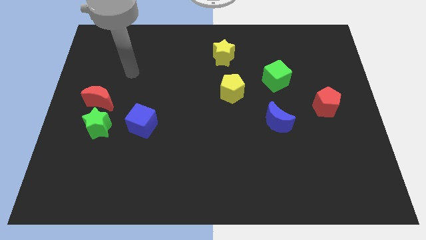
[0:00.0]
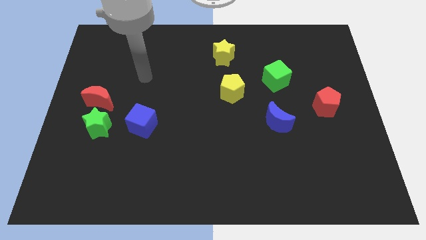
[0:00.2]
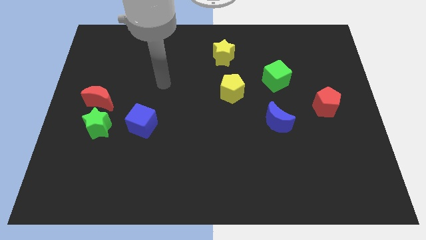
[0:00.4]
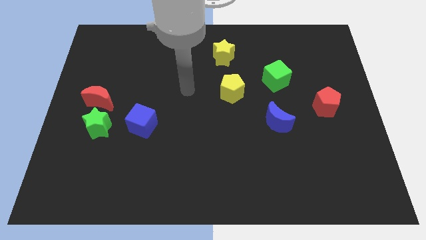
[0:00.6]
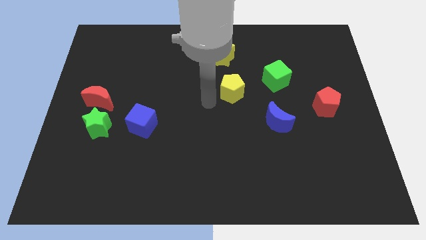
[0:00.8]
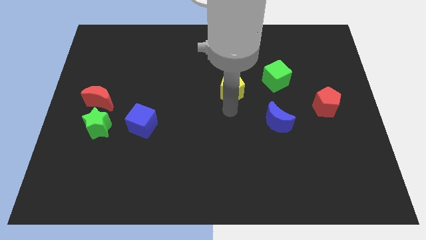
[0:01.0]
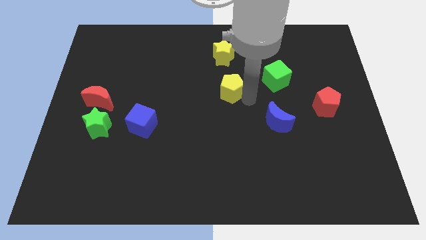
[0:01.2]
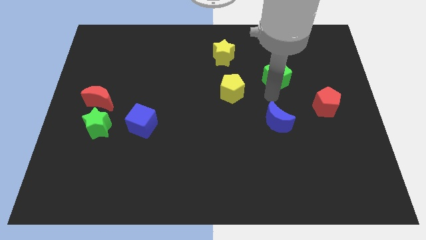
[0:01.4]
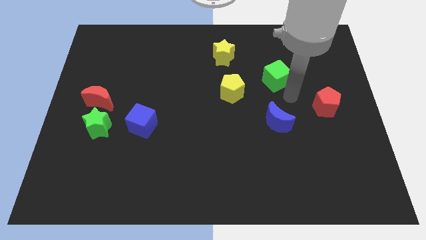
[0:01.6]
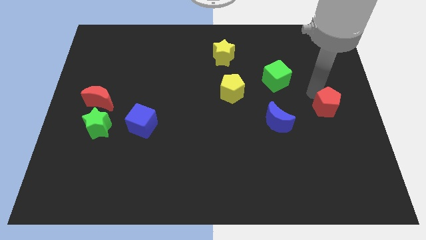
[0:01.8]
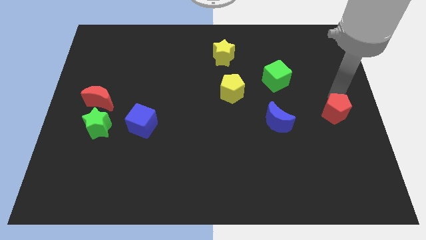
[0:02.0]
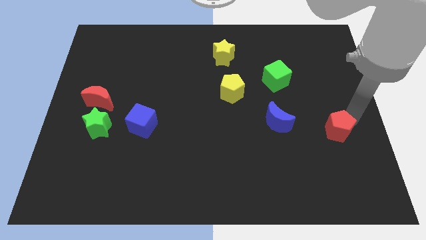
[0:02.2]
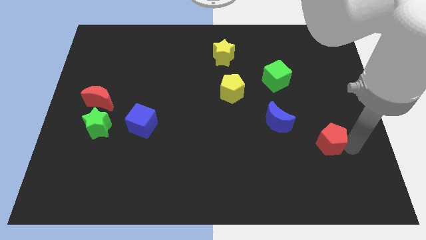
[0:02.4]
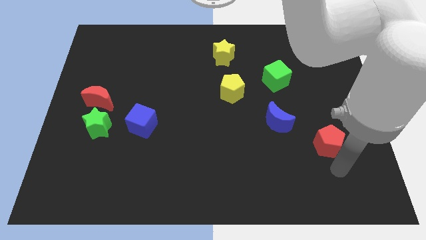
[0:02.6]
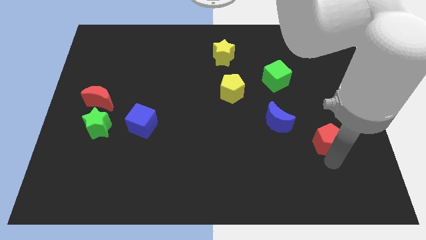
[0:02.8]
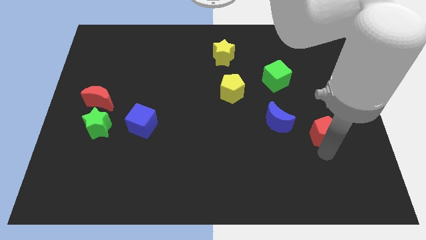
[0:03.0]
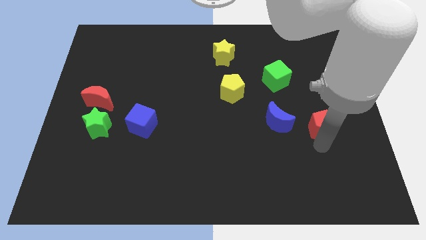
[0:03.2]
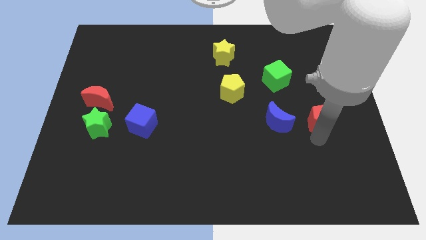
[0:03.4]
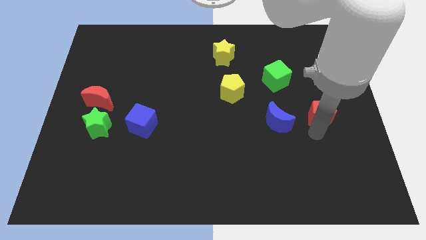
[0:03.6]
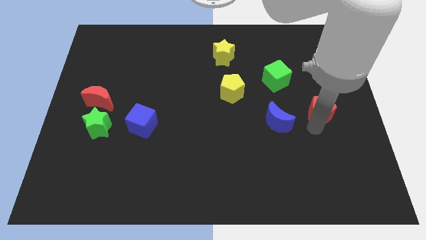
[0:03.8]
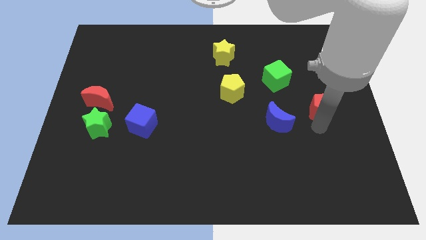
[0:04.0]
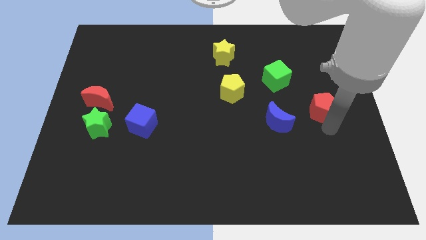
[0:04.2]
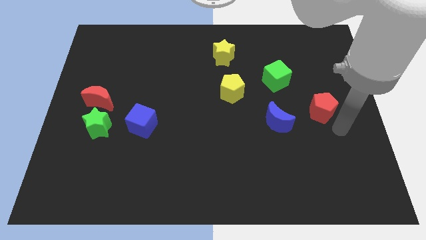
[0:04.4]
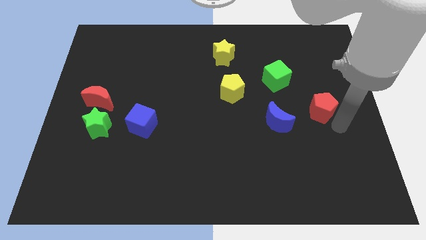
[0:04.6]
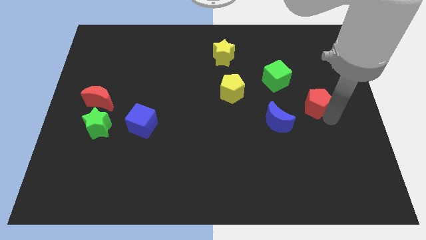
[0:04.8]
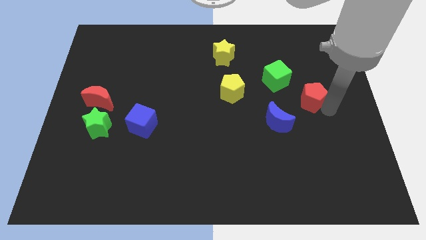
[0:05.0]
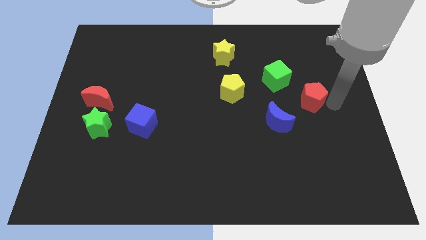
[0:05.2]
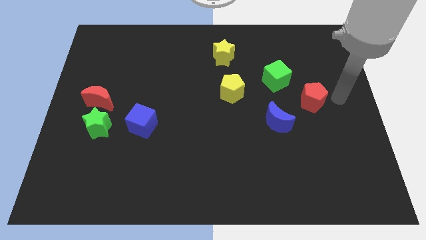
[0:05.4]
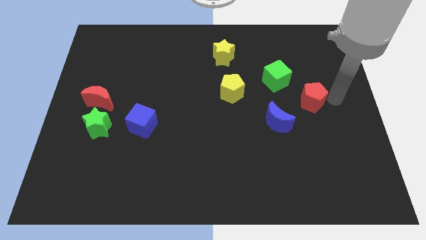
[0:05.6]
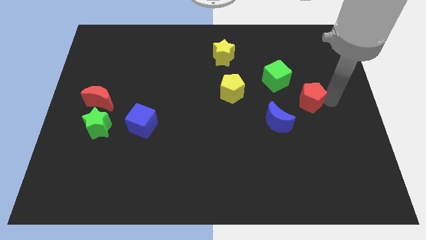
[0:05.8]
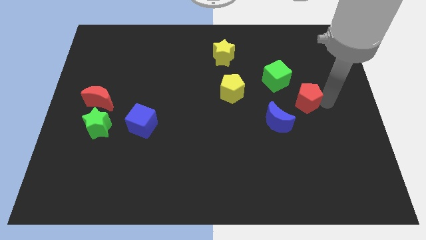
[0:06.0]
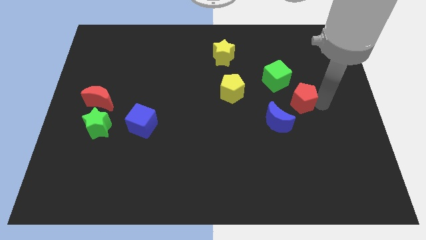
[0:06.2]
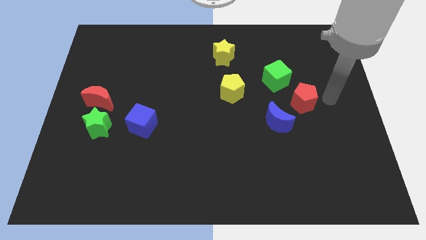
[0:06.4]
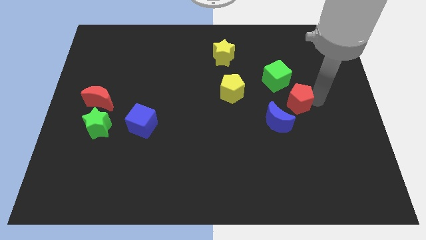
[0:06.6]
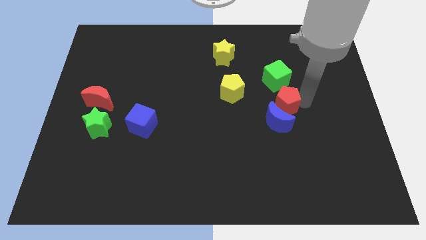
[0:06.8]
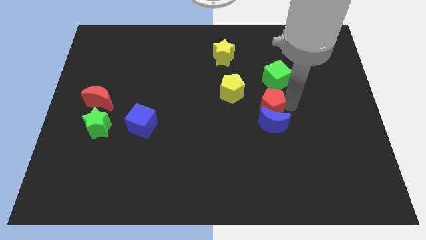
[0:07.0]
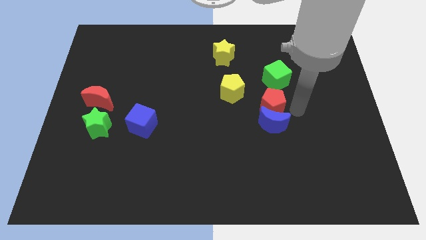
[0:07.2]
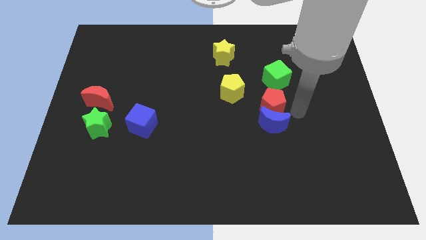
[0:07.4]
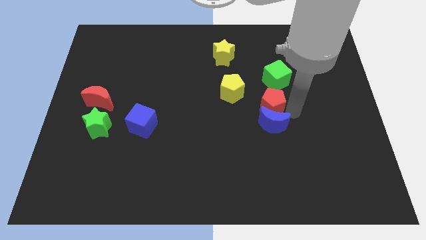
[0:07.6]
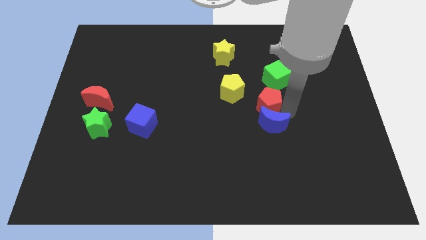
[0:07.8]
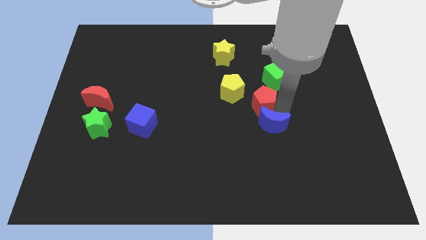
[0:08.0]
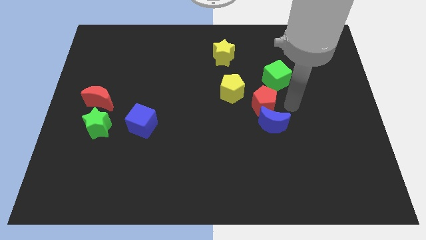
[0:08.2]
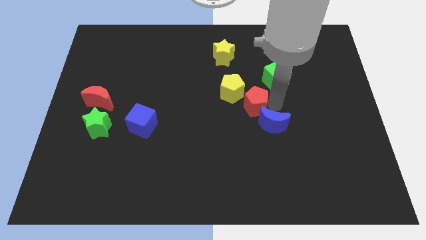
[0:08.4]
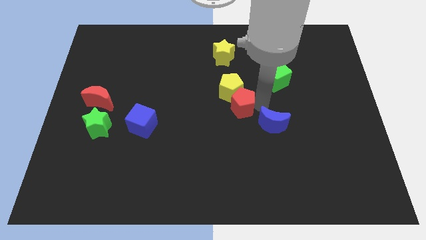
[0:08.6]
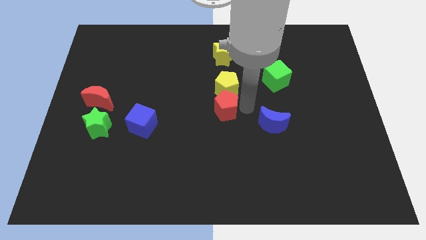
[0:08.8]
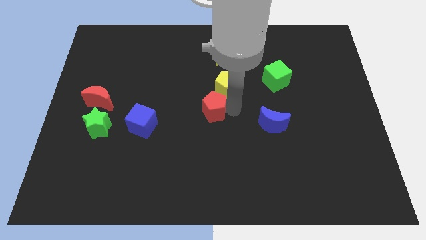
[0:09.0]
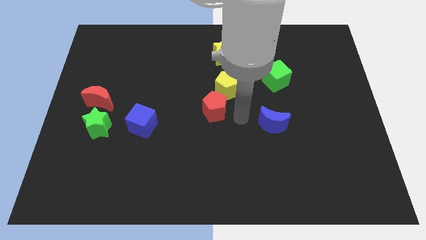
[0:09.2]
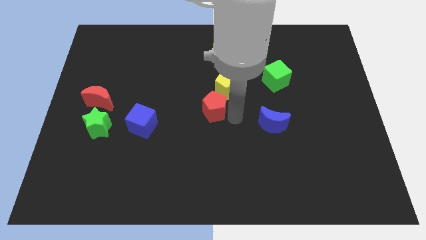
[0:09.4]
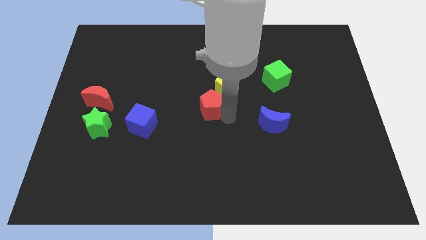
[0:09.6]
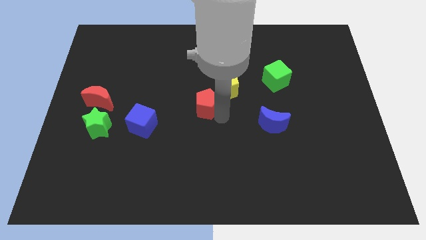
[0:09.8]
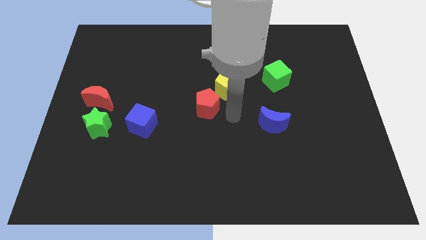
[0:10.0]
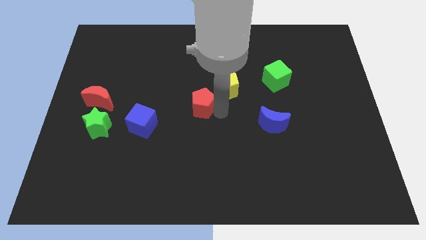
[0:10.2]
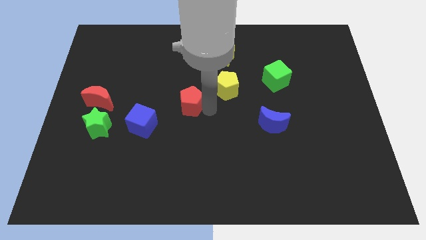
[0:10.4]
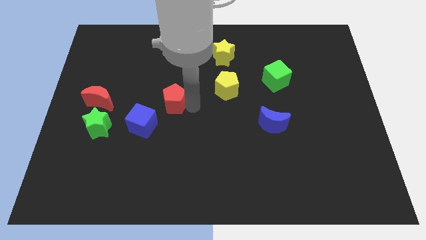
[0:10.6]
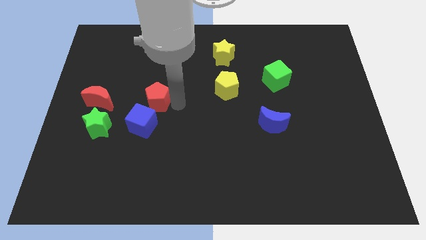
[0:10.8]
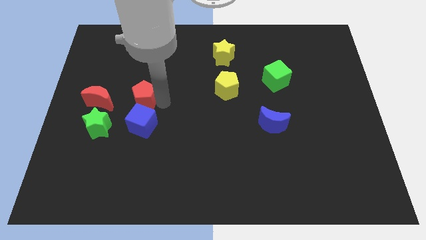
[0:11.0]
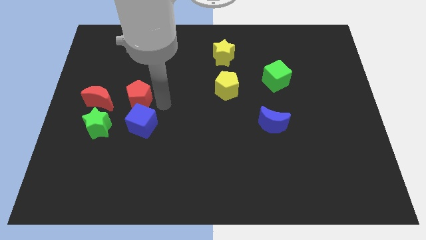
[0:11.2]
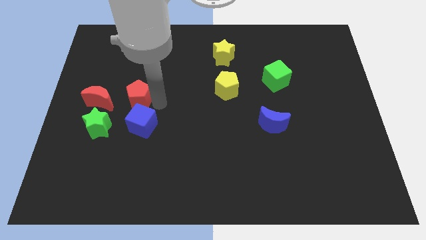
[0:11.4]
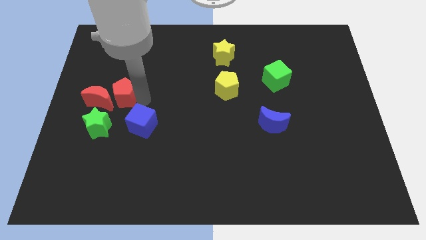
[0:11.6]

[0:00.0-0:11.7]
slide the red pentagon to the top side of the green star

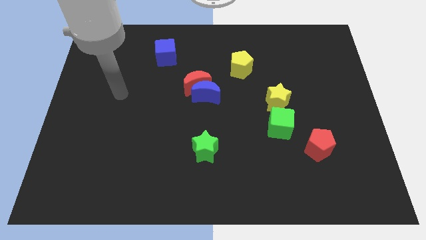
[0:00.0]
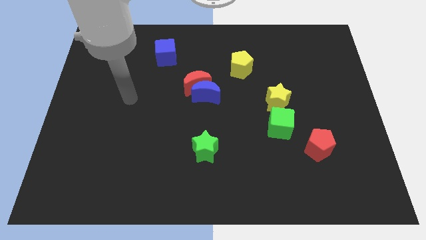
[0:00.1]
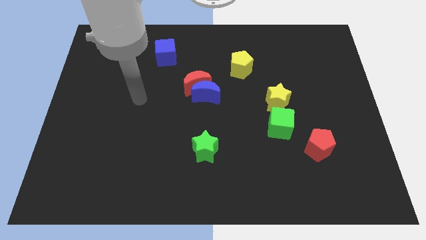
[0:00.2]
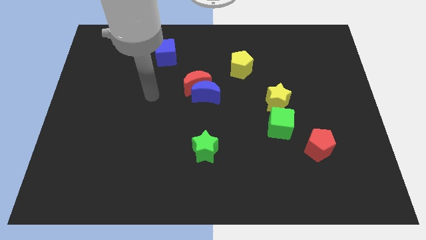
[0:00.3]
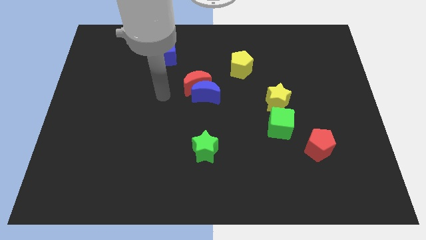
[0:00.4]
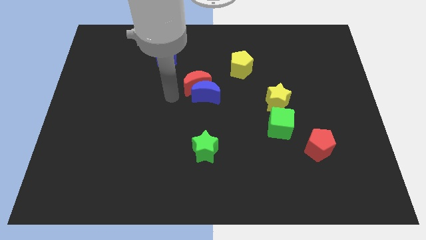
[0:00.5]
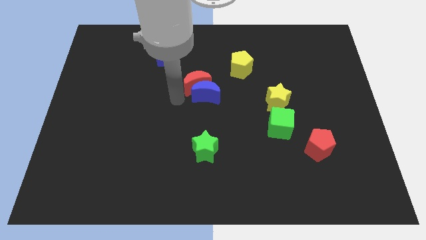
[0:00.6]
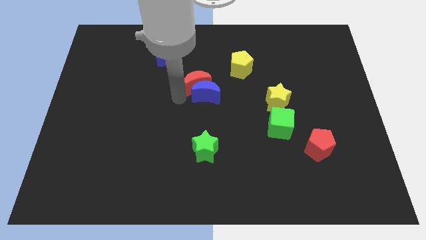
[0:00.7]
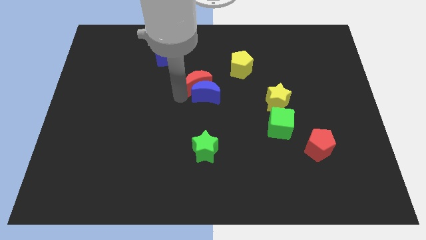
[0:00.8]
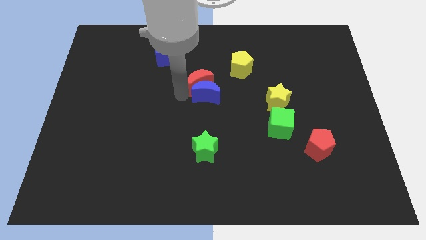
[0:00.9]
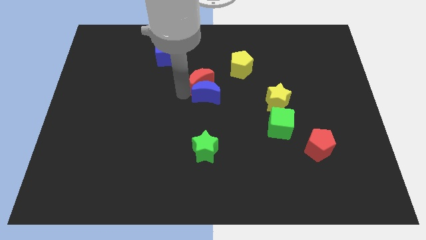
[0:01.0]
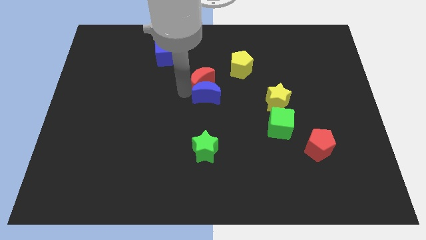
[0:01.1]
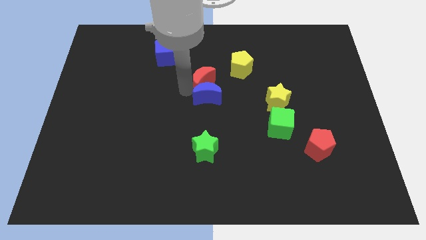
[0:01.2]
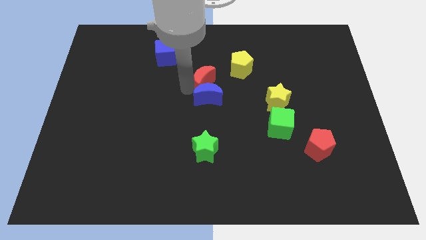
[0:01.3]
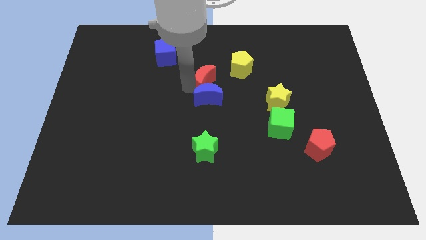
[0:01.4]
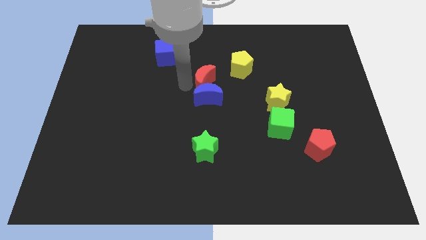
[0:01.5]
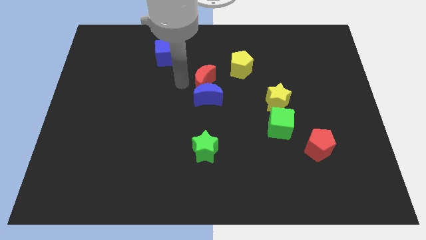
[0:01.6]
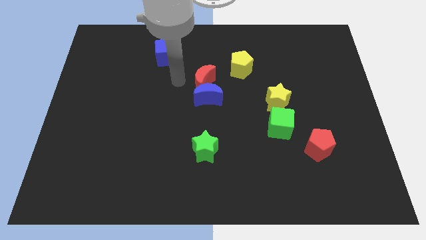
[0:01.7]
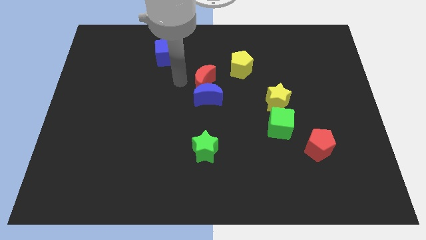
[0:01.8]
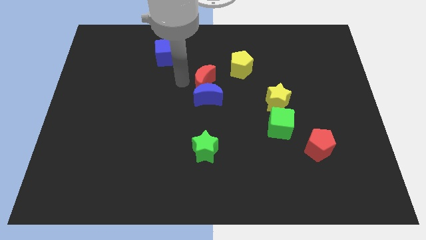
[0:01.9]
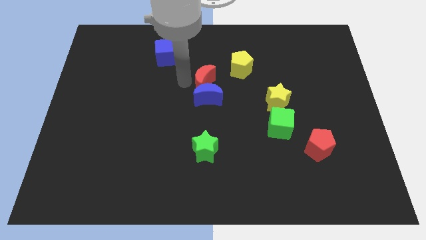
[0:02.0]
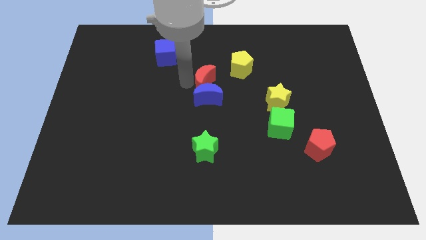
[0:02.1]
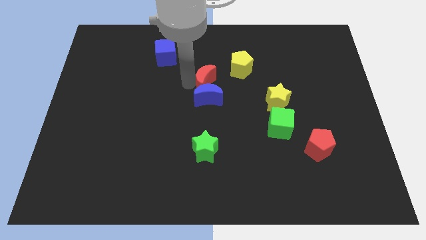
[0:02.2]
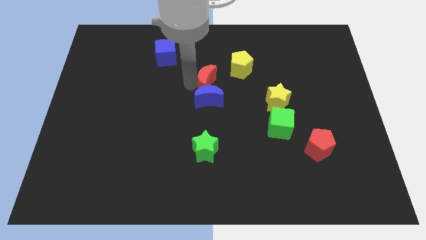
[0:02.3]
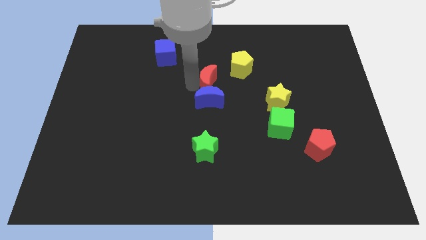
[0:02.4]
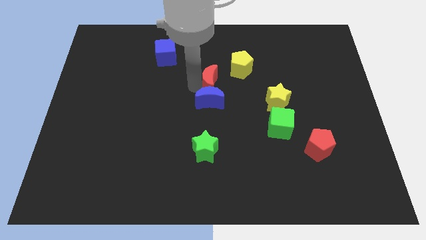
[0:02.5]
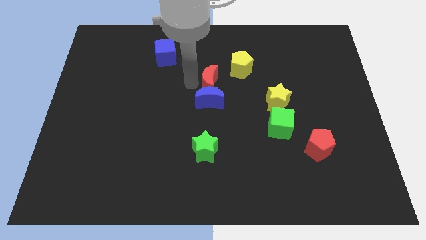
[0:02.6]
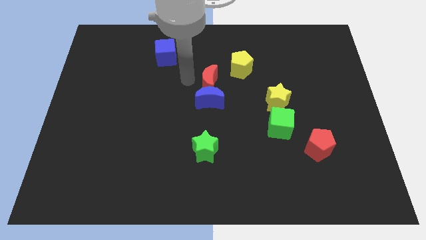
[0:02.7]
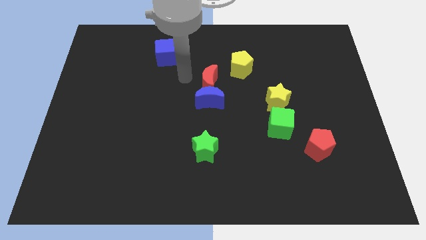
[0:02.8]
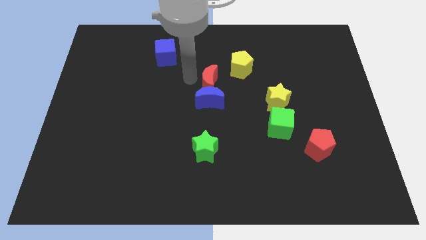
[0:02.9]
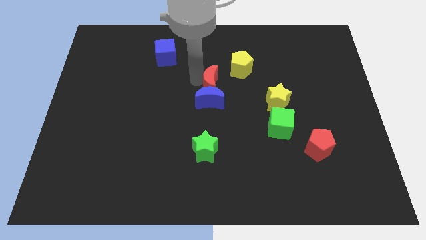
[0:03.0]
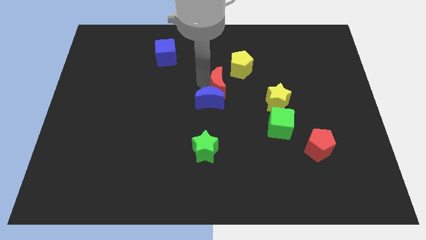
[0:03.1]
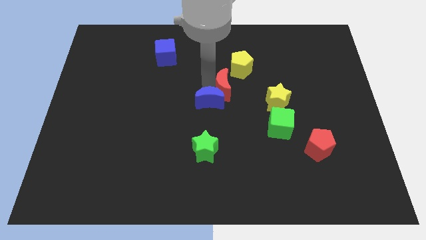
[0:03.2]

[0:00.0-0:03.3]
move the red moon below the yellow pentagon
